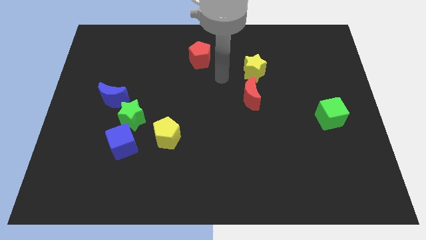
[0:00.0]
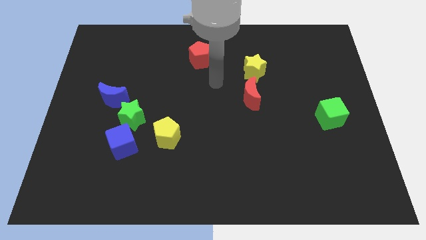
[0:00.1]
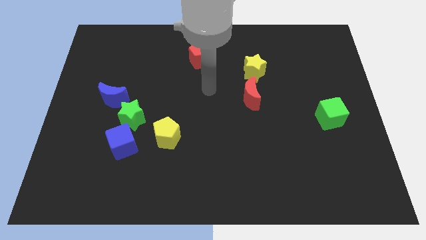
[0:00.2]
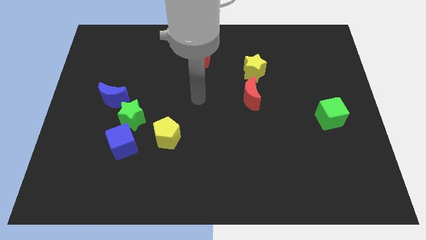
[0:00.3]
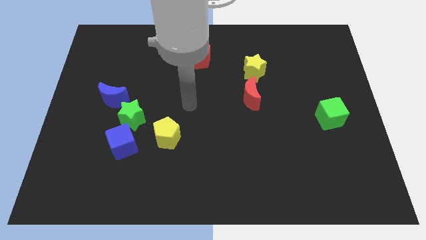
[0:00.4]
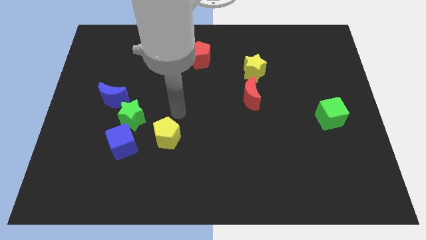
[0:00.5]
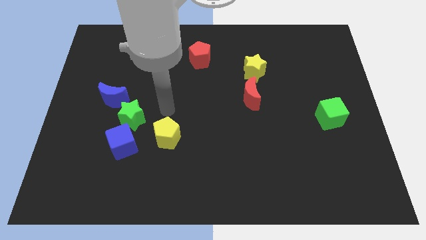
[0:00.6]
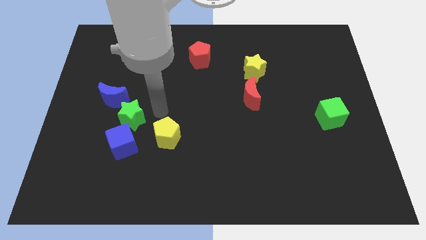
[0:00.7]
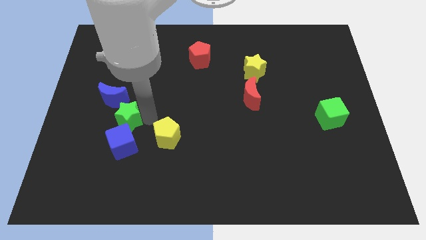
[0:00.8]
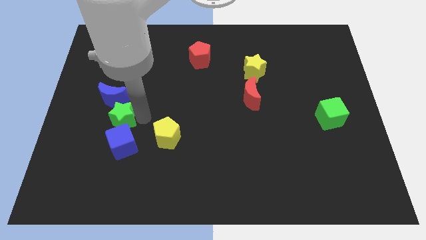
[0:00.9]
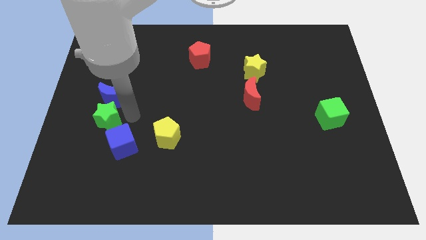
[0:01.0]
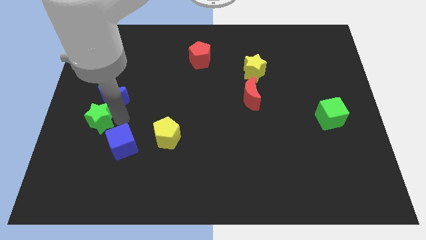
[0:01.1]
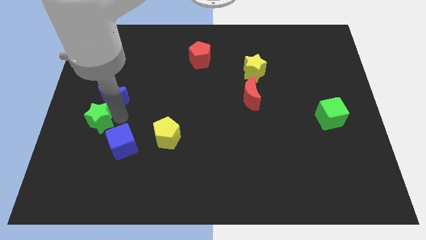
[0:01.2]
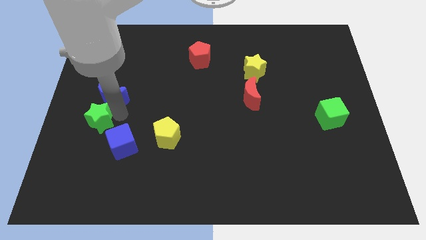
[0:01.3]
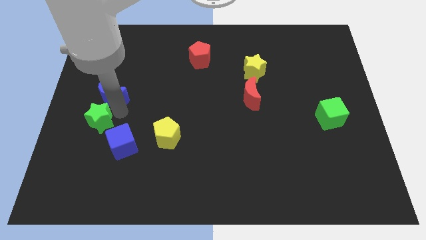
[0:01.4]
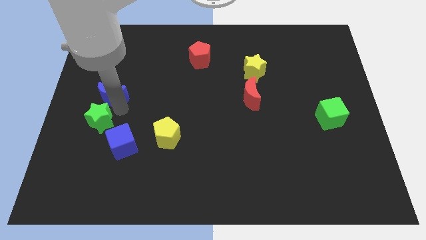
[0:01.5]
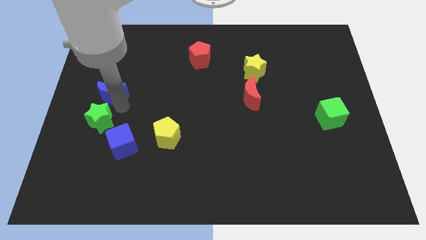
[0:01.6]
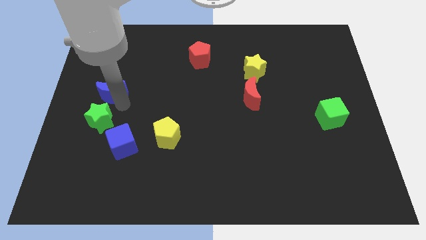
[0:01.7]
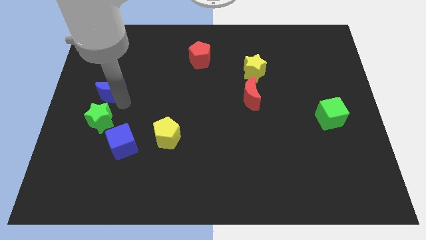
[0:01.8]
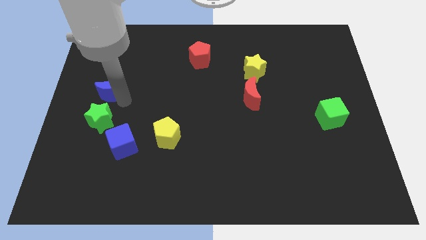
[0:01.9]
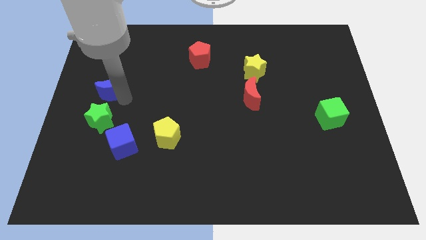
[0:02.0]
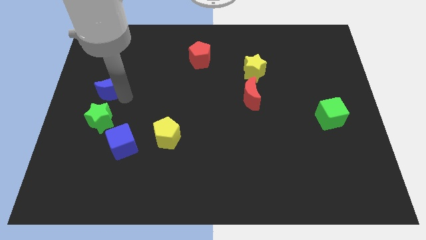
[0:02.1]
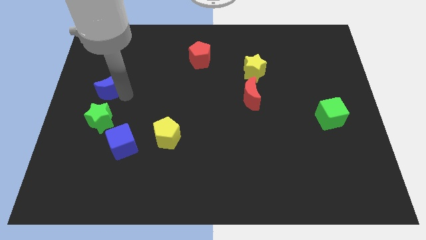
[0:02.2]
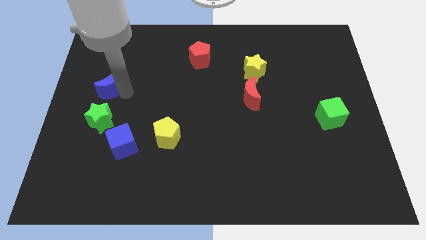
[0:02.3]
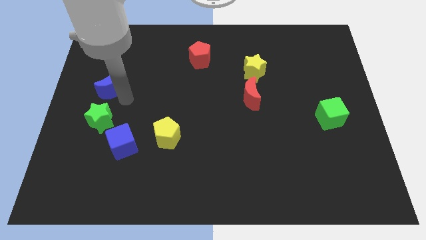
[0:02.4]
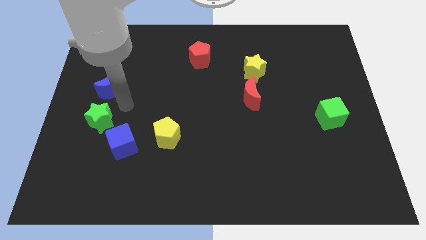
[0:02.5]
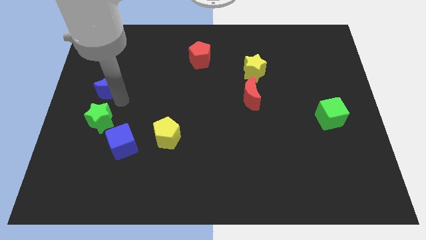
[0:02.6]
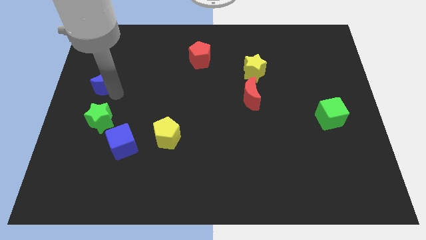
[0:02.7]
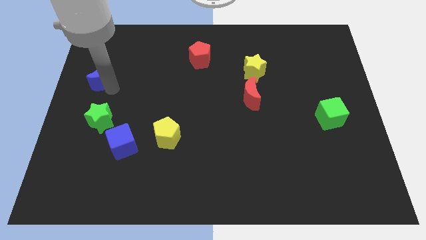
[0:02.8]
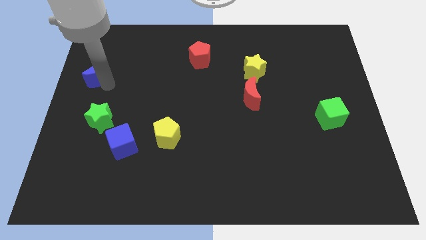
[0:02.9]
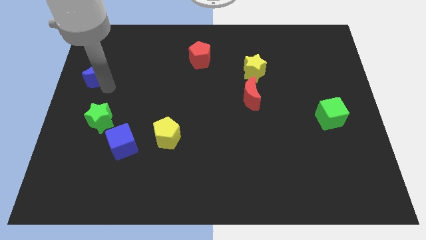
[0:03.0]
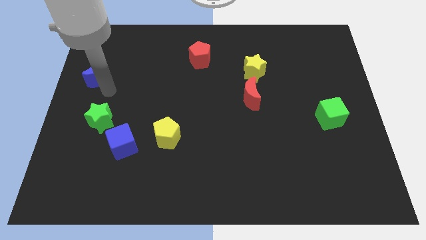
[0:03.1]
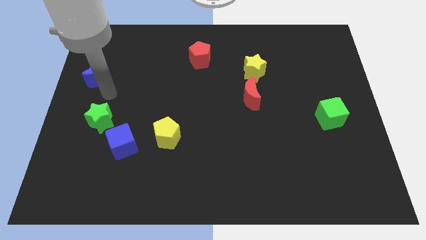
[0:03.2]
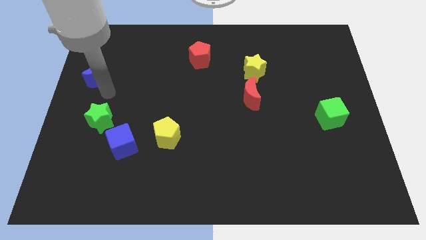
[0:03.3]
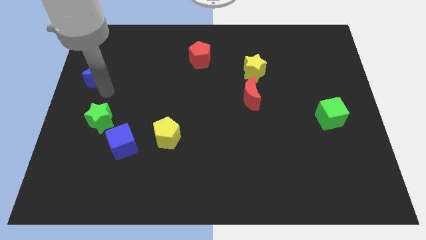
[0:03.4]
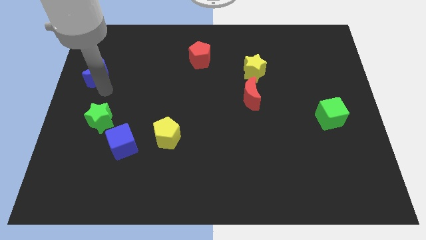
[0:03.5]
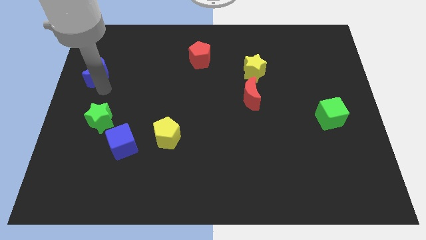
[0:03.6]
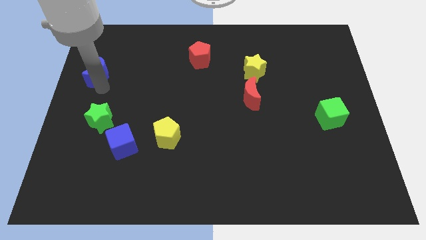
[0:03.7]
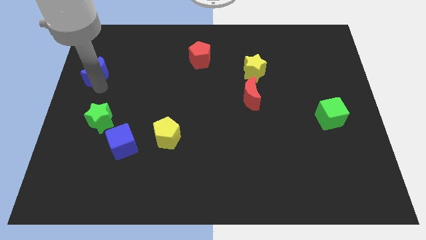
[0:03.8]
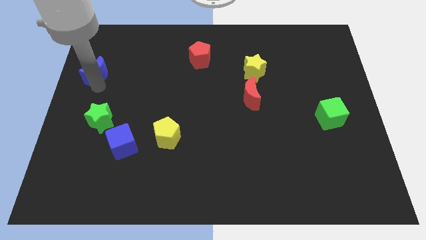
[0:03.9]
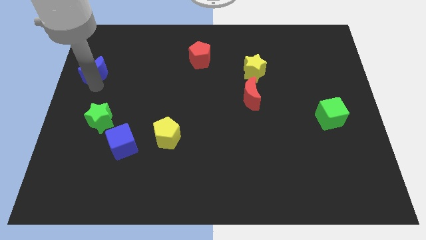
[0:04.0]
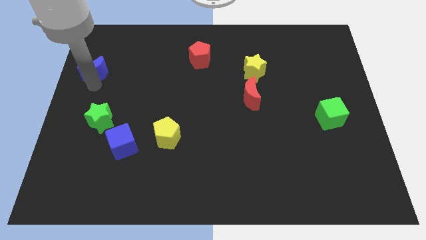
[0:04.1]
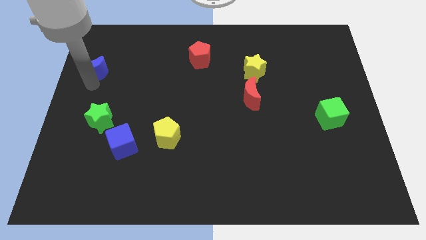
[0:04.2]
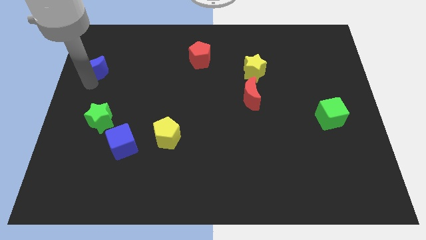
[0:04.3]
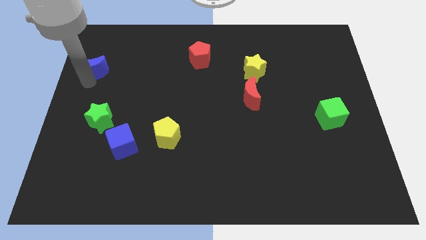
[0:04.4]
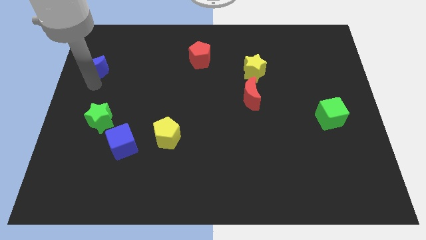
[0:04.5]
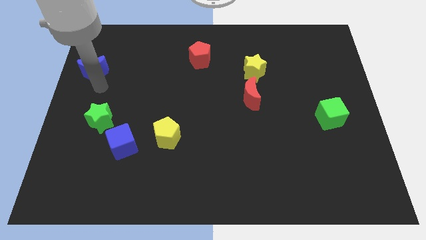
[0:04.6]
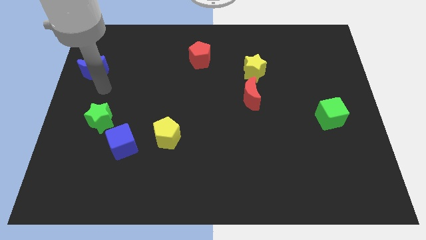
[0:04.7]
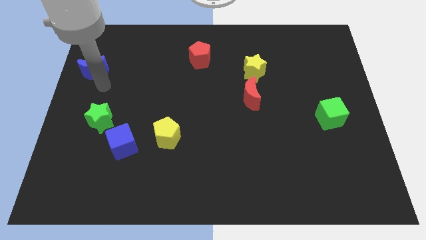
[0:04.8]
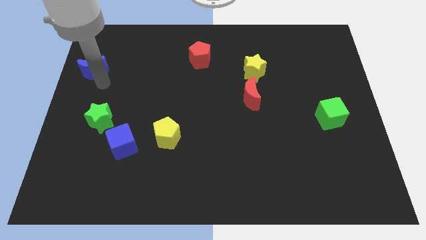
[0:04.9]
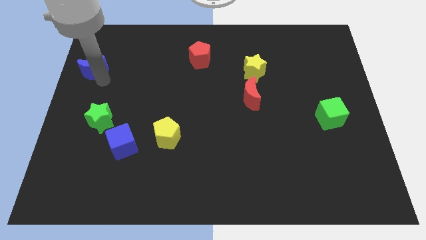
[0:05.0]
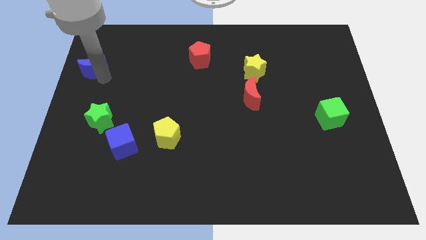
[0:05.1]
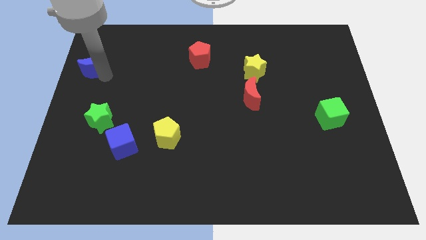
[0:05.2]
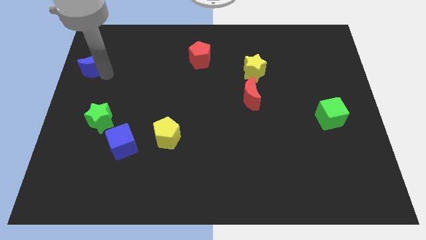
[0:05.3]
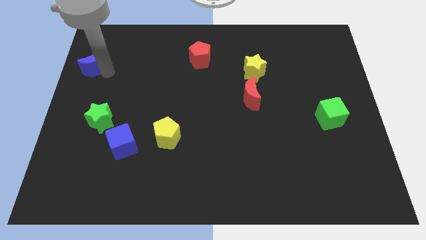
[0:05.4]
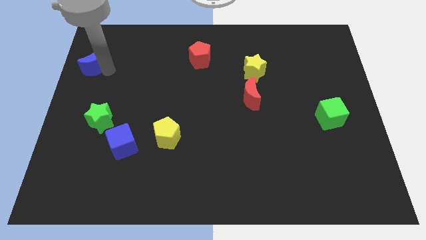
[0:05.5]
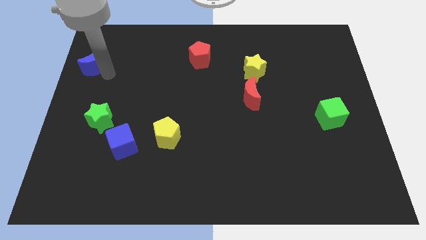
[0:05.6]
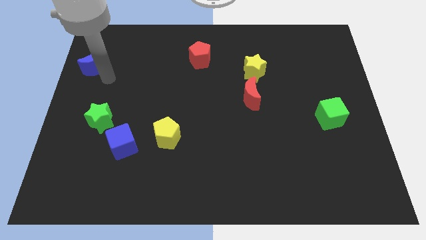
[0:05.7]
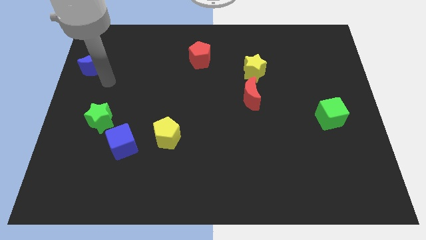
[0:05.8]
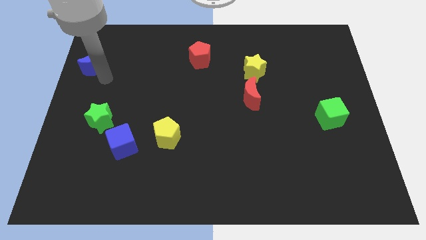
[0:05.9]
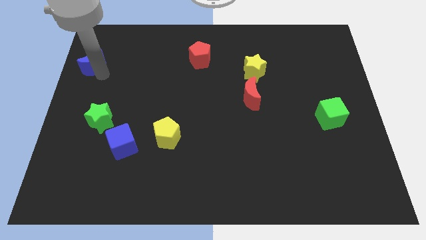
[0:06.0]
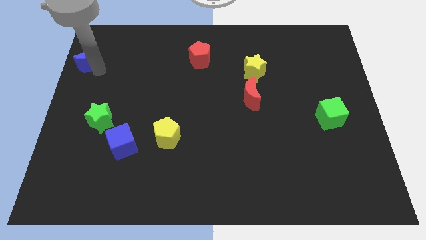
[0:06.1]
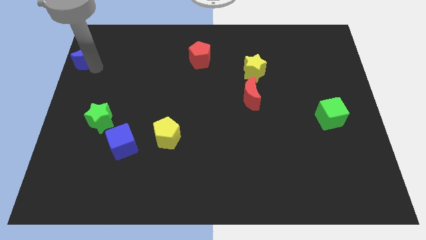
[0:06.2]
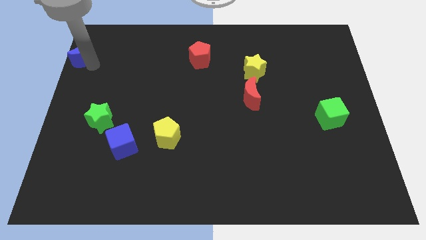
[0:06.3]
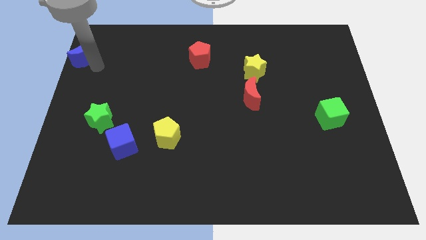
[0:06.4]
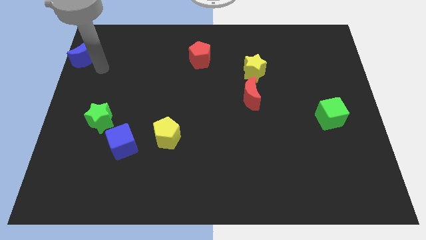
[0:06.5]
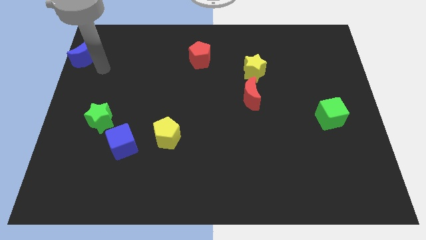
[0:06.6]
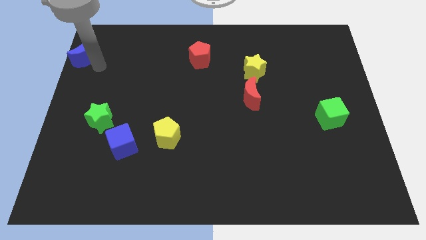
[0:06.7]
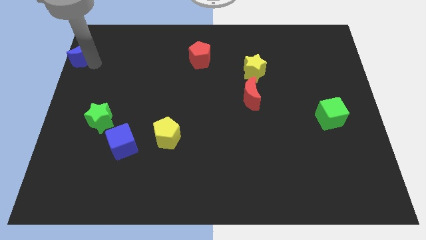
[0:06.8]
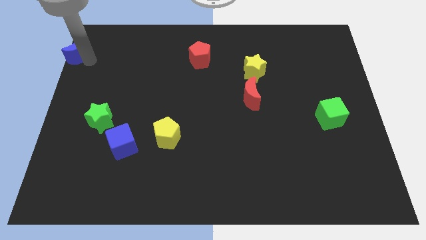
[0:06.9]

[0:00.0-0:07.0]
slide the blue moon to the top left corner
